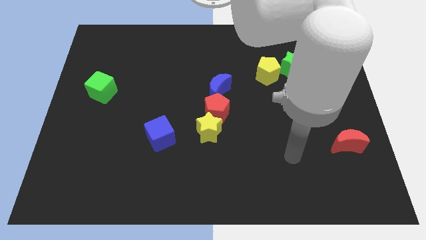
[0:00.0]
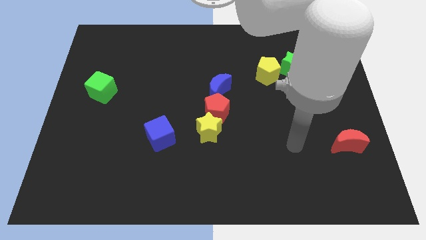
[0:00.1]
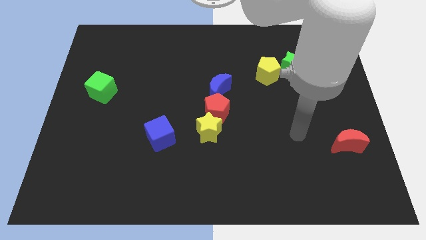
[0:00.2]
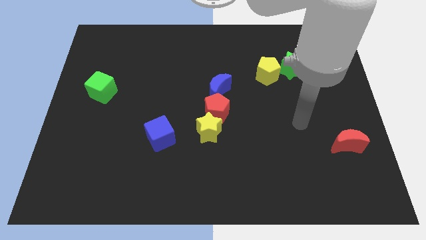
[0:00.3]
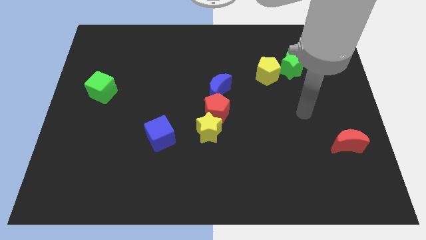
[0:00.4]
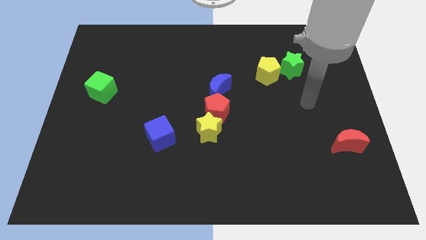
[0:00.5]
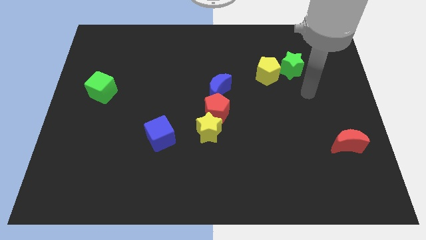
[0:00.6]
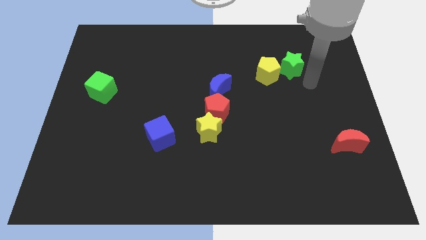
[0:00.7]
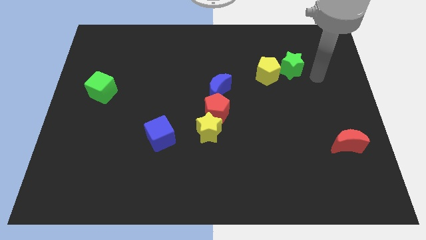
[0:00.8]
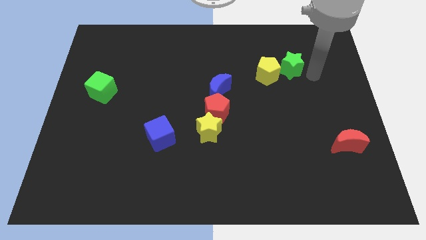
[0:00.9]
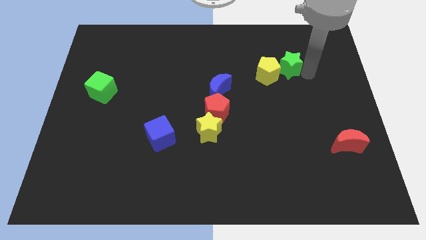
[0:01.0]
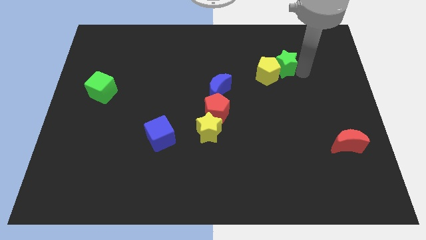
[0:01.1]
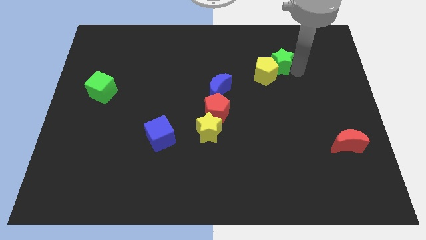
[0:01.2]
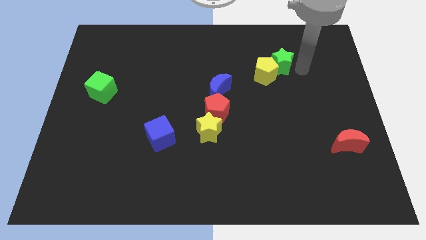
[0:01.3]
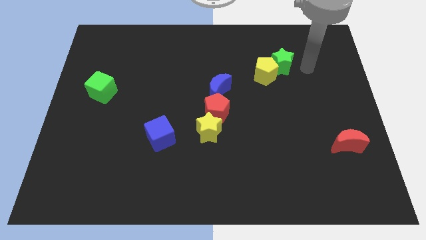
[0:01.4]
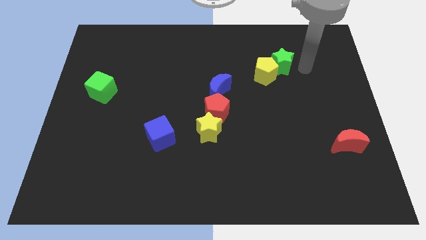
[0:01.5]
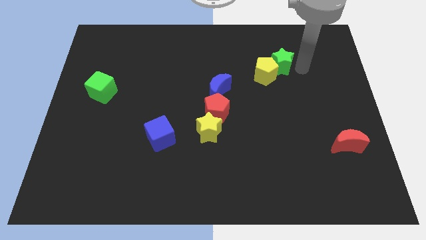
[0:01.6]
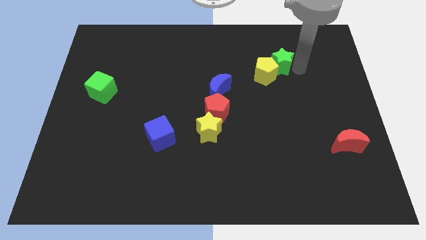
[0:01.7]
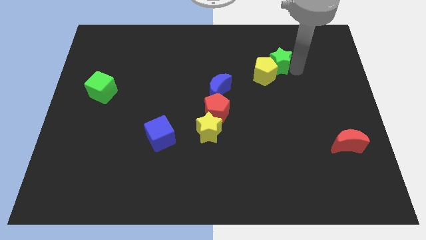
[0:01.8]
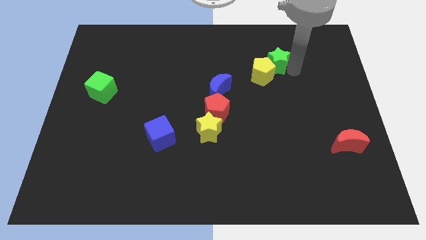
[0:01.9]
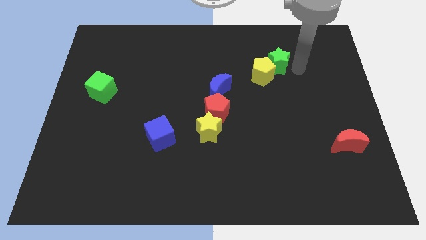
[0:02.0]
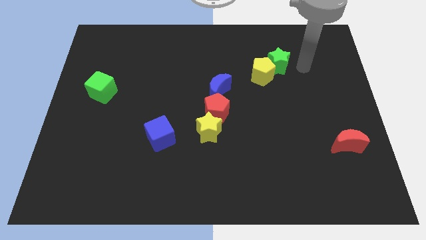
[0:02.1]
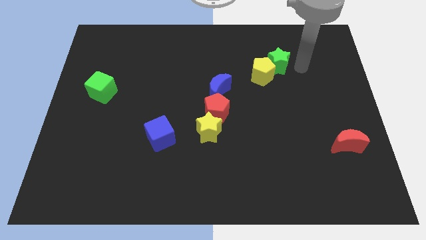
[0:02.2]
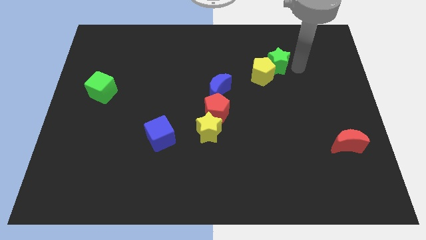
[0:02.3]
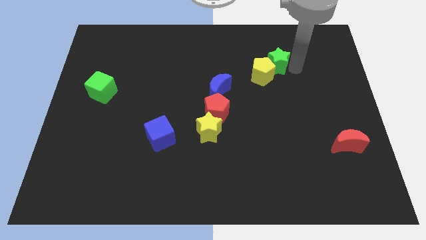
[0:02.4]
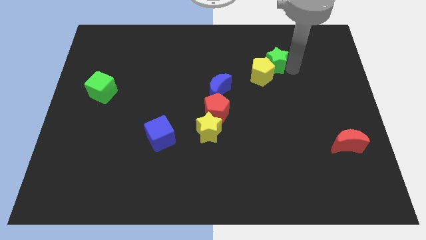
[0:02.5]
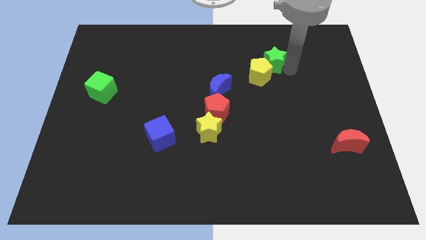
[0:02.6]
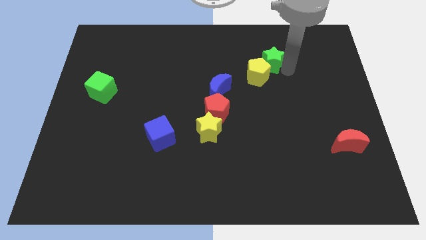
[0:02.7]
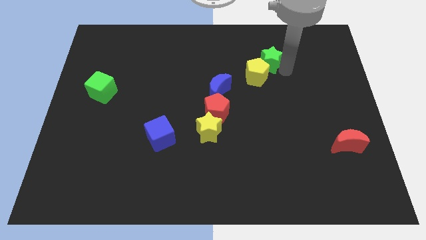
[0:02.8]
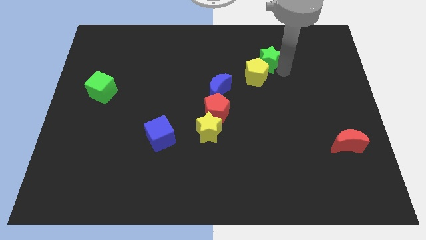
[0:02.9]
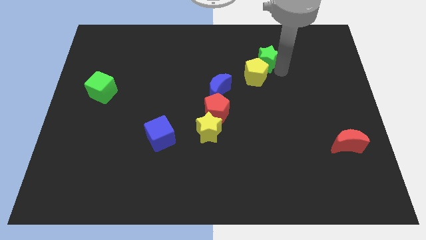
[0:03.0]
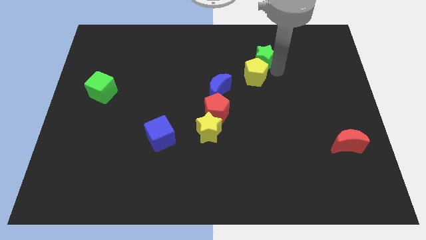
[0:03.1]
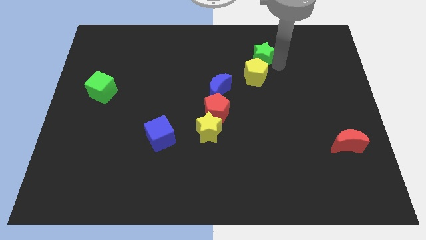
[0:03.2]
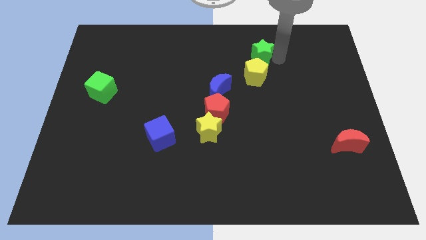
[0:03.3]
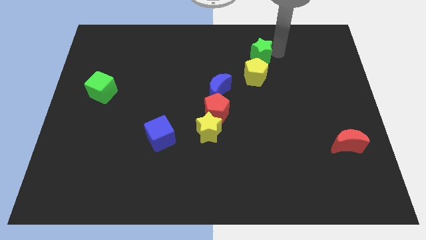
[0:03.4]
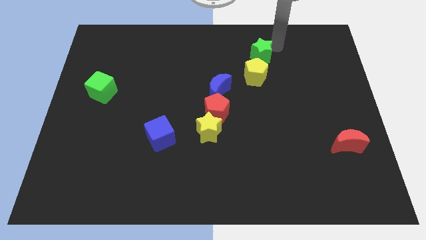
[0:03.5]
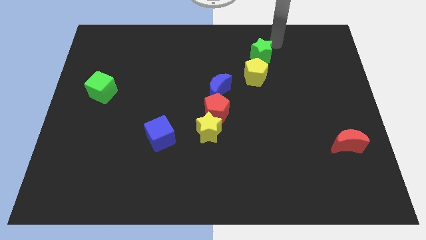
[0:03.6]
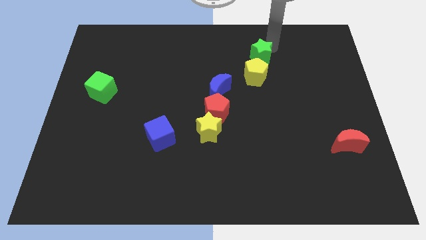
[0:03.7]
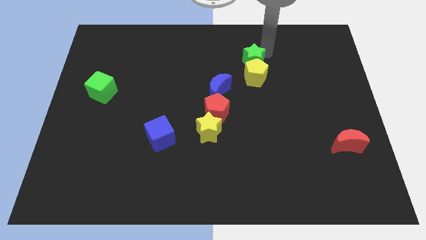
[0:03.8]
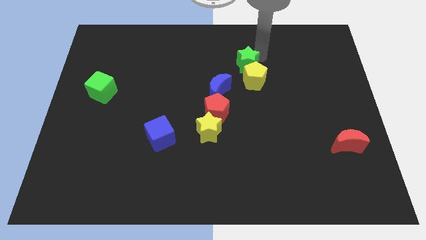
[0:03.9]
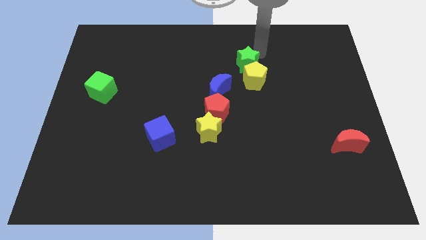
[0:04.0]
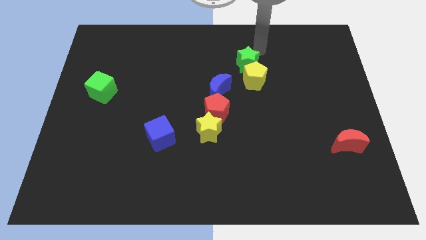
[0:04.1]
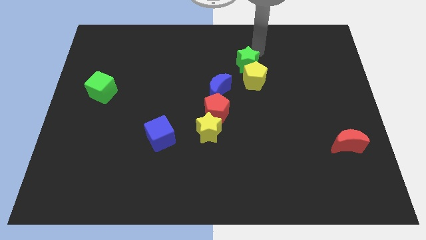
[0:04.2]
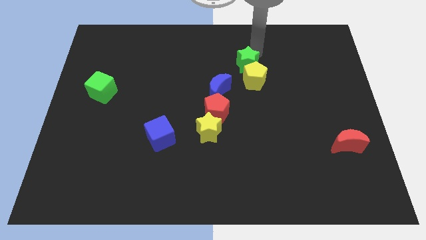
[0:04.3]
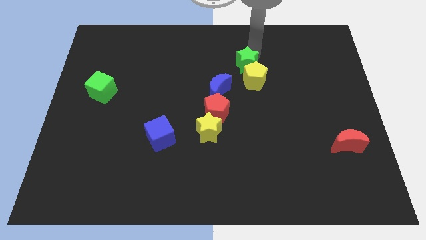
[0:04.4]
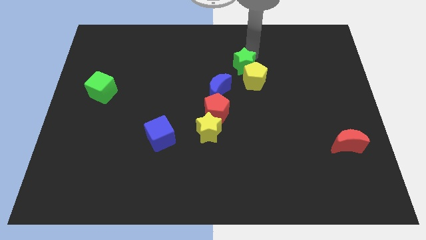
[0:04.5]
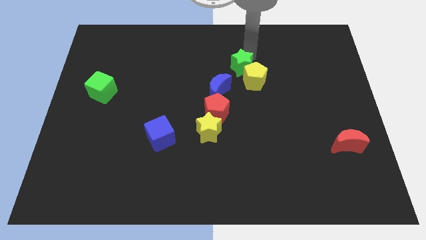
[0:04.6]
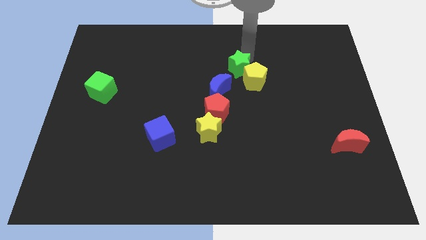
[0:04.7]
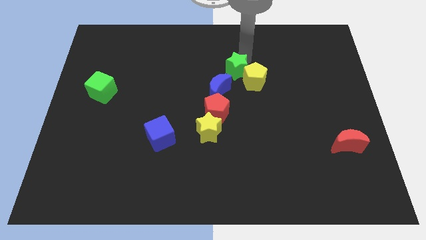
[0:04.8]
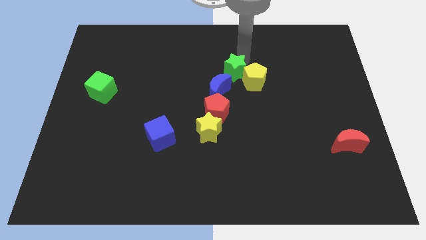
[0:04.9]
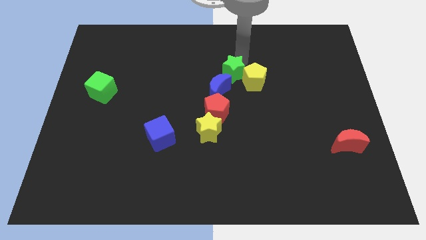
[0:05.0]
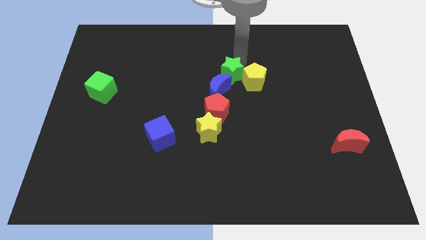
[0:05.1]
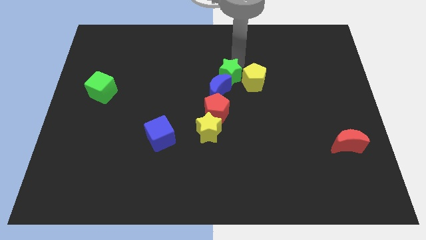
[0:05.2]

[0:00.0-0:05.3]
move the green star close to the blue moon

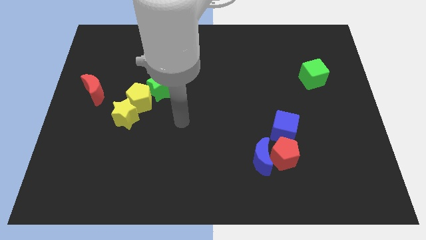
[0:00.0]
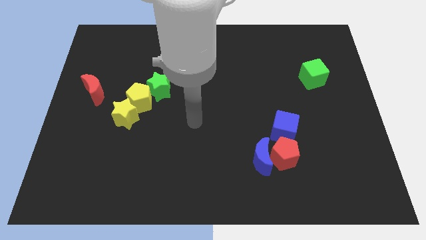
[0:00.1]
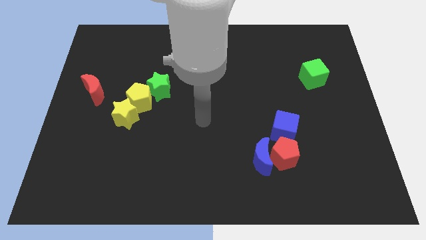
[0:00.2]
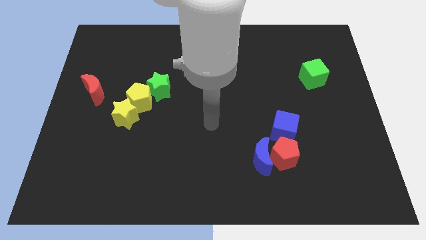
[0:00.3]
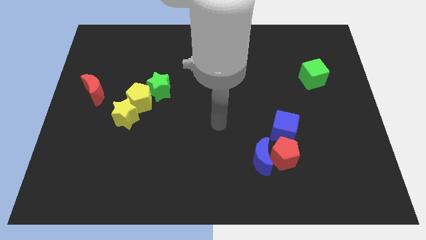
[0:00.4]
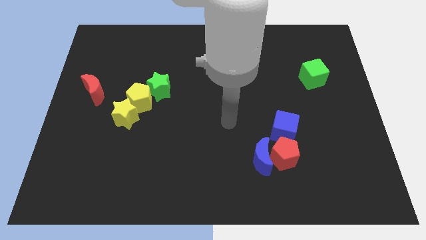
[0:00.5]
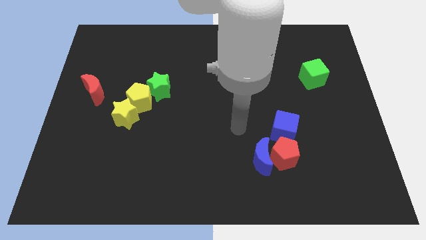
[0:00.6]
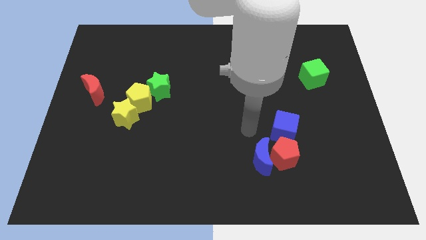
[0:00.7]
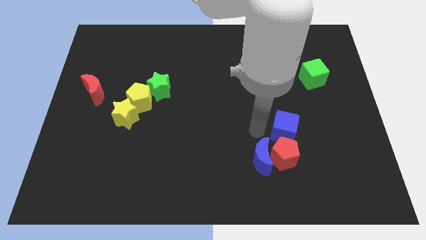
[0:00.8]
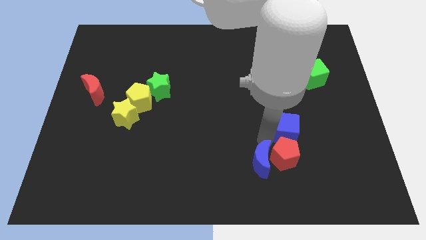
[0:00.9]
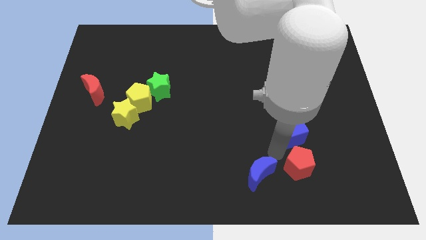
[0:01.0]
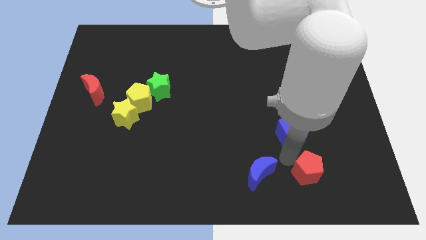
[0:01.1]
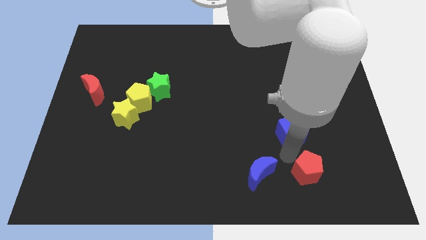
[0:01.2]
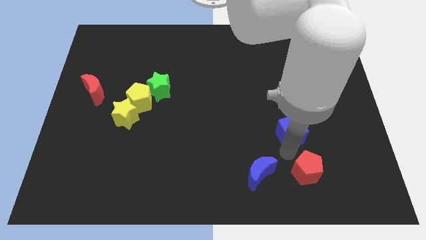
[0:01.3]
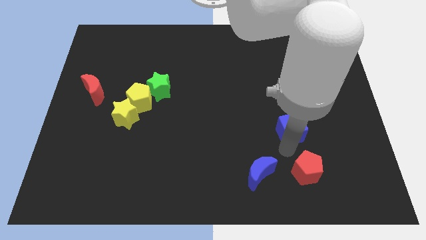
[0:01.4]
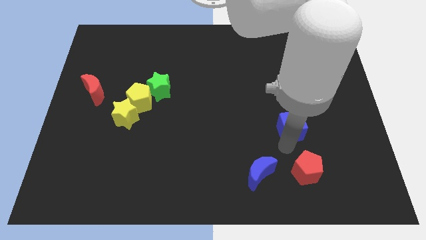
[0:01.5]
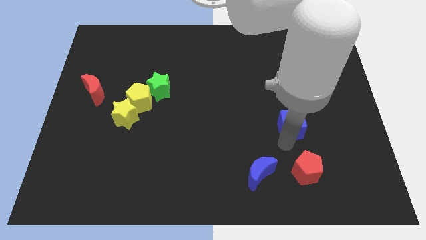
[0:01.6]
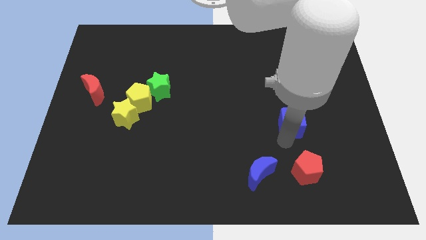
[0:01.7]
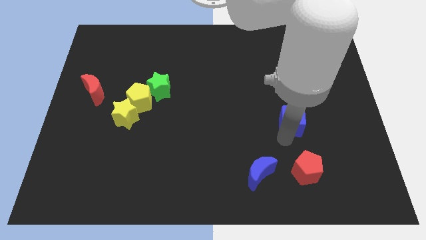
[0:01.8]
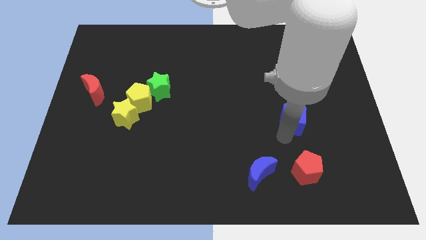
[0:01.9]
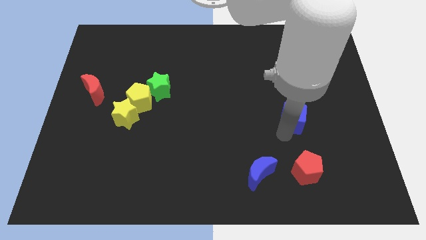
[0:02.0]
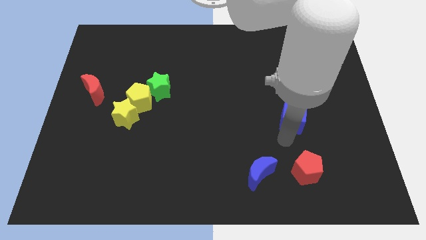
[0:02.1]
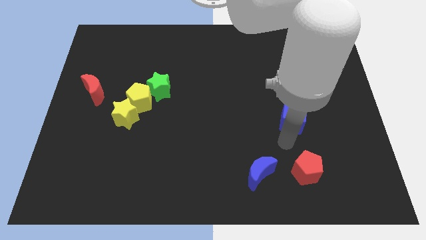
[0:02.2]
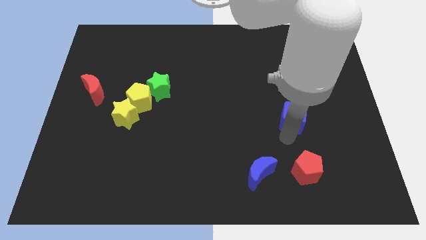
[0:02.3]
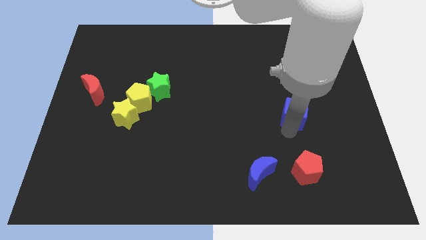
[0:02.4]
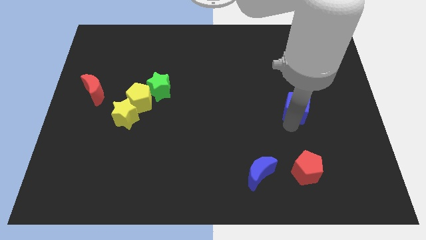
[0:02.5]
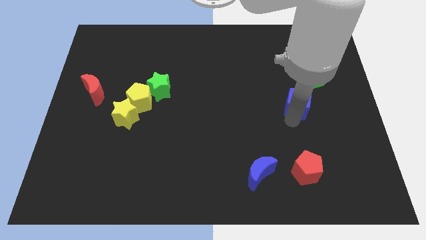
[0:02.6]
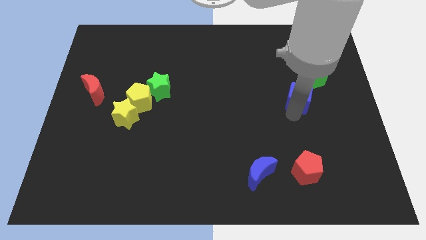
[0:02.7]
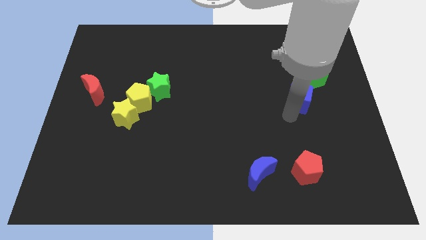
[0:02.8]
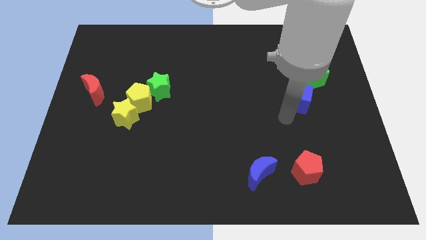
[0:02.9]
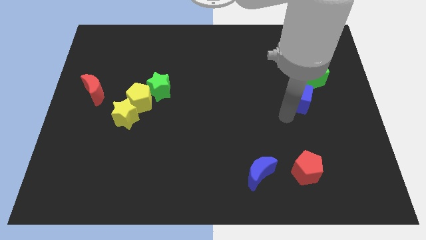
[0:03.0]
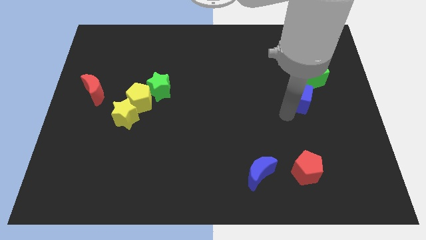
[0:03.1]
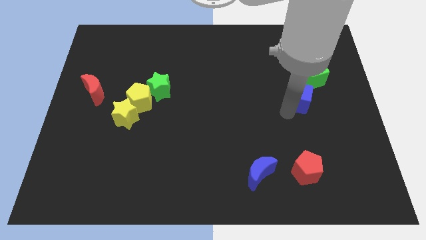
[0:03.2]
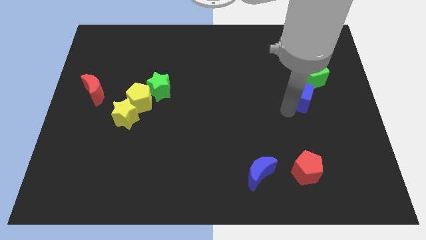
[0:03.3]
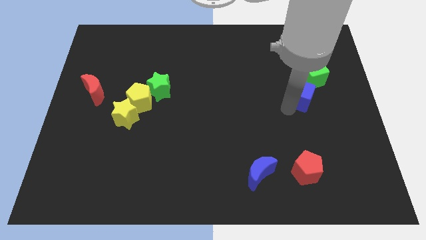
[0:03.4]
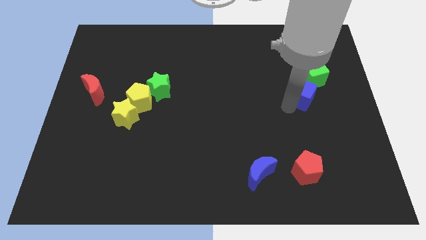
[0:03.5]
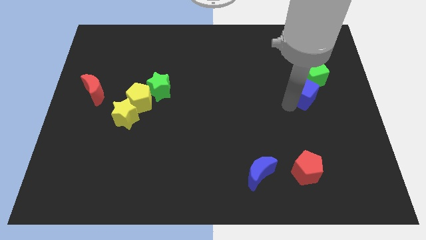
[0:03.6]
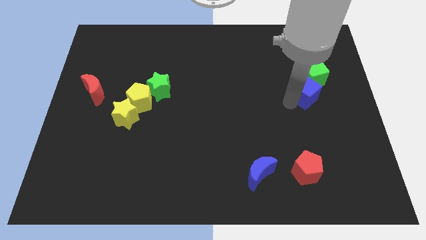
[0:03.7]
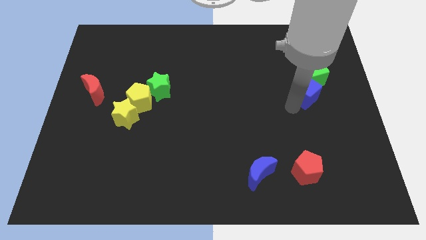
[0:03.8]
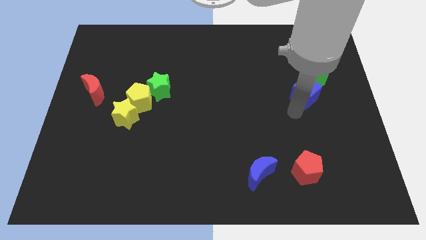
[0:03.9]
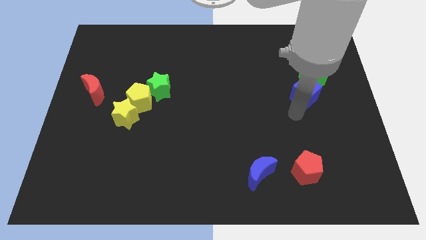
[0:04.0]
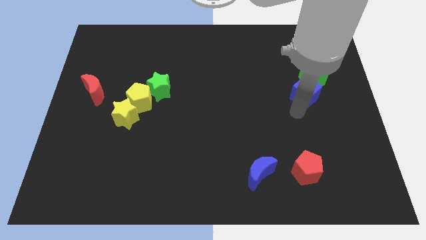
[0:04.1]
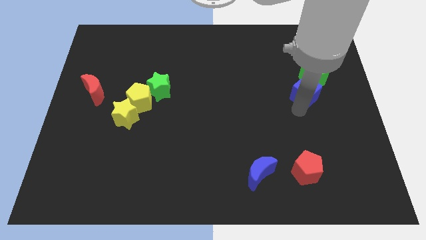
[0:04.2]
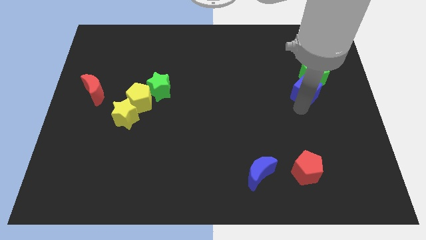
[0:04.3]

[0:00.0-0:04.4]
move the blue cube next to the green cube
